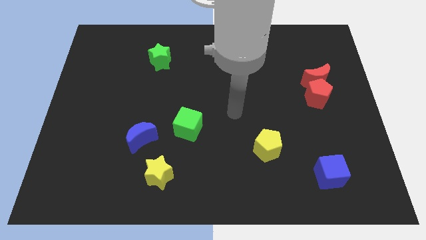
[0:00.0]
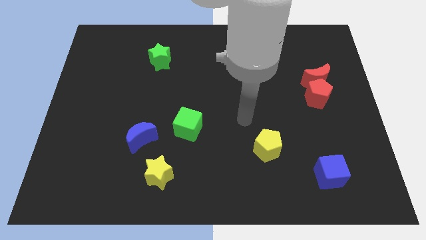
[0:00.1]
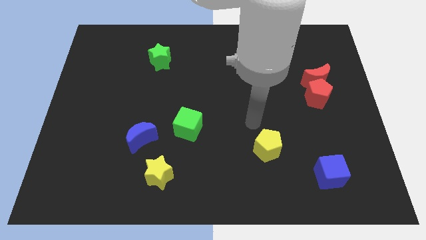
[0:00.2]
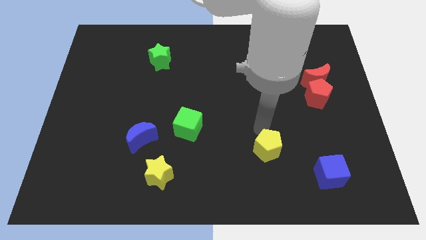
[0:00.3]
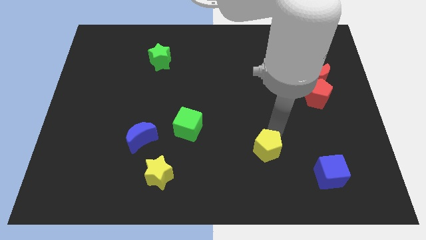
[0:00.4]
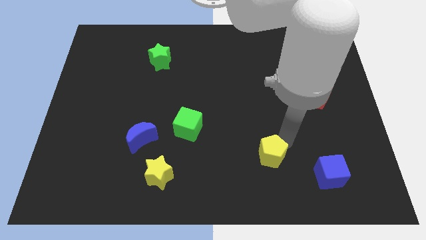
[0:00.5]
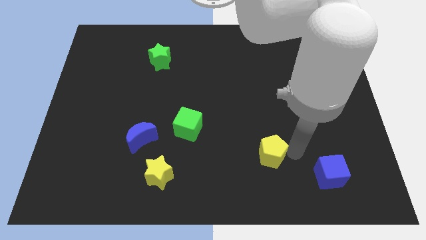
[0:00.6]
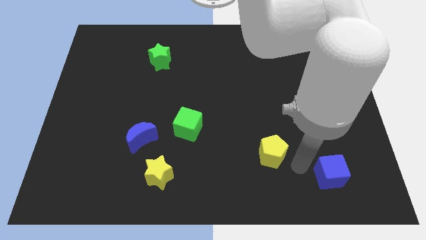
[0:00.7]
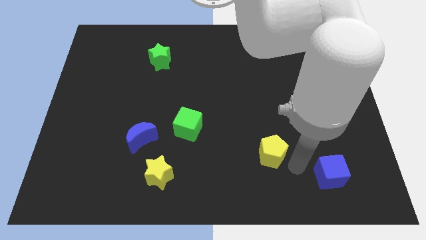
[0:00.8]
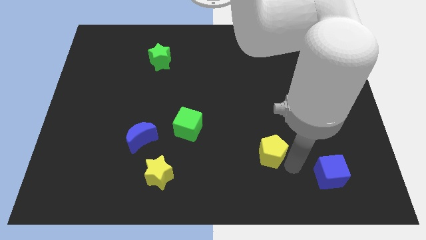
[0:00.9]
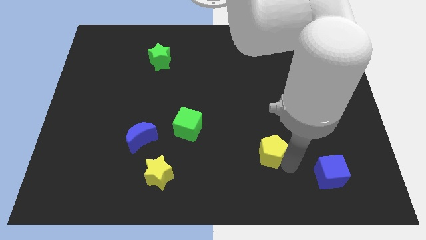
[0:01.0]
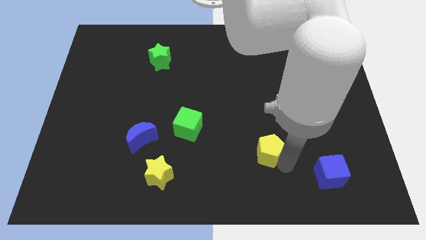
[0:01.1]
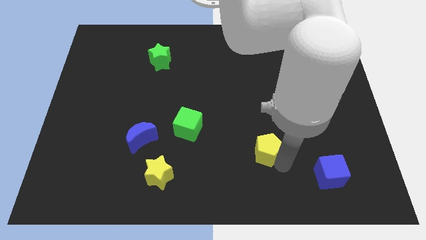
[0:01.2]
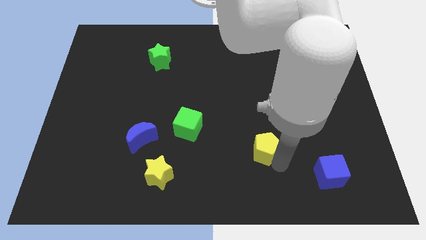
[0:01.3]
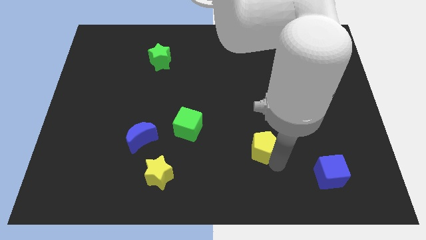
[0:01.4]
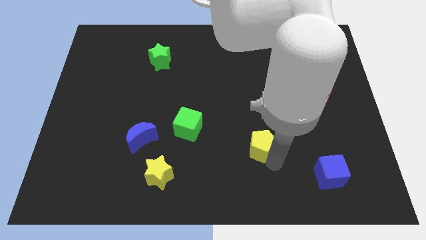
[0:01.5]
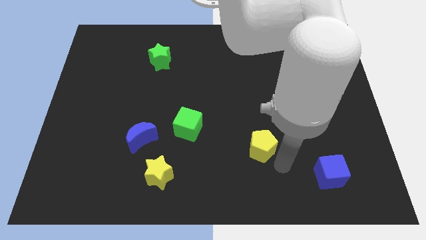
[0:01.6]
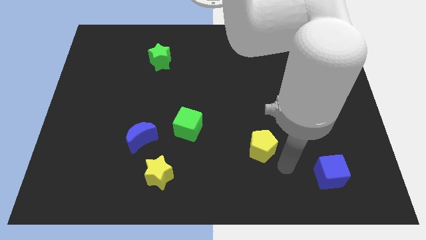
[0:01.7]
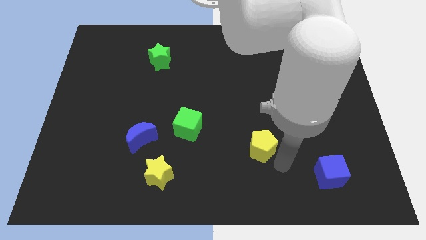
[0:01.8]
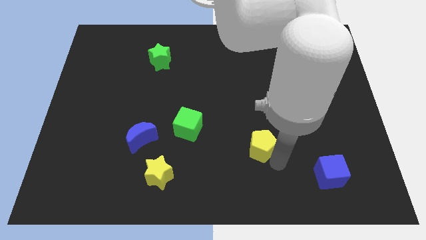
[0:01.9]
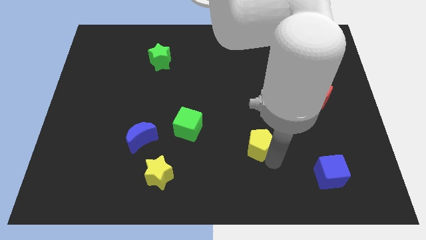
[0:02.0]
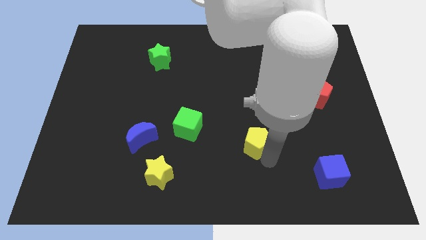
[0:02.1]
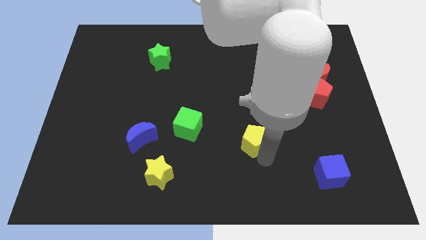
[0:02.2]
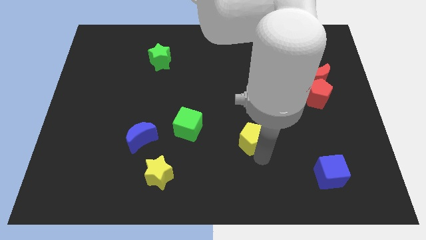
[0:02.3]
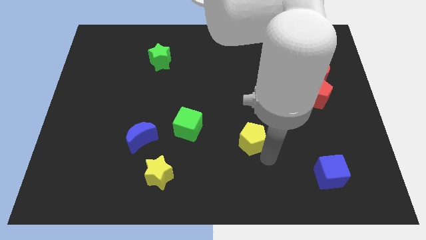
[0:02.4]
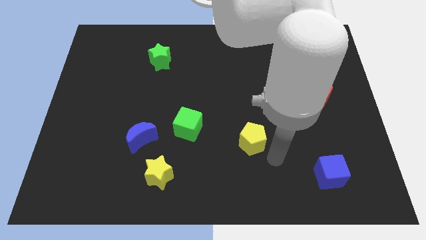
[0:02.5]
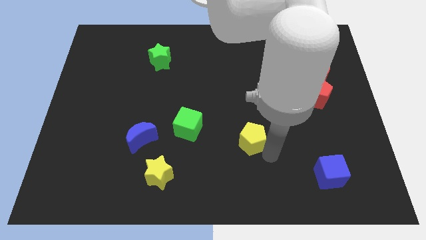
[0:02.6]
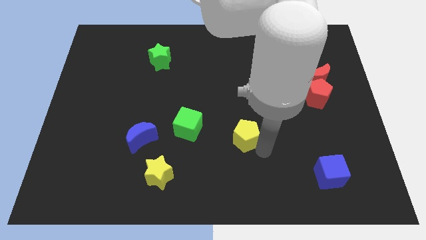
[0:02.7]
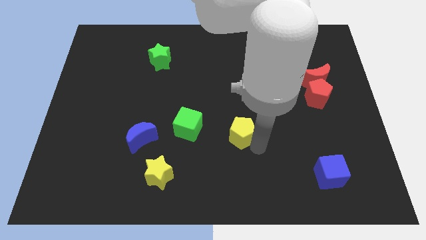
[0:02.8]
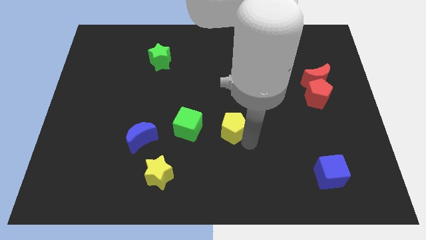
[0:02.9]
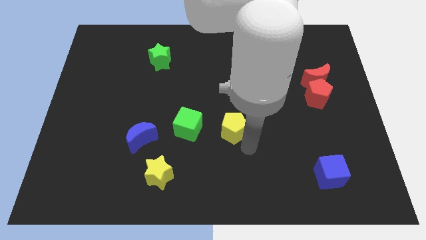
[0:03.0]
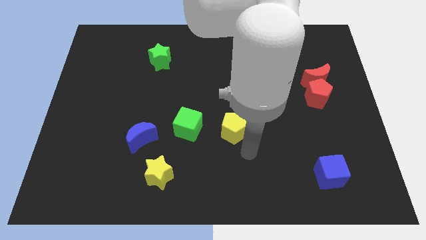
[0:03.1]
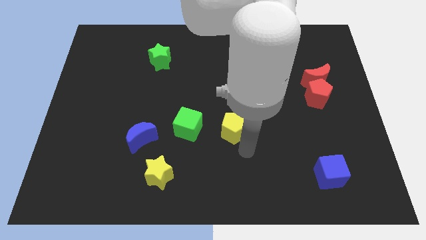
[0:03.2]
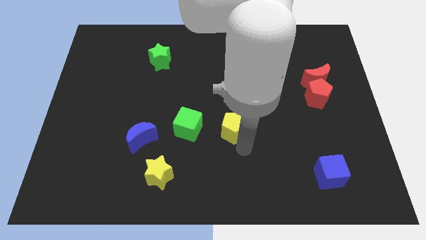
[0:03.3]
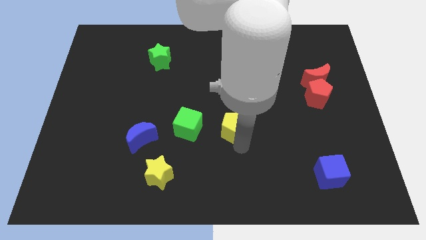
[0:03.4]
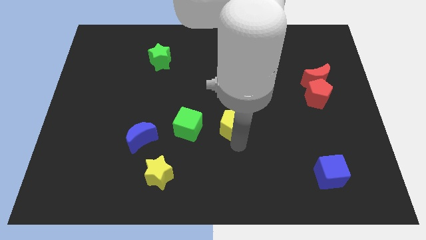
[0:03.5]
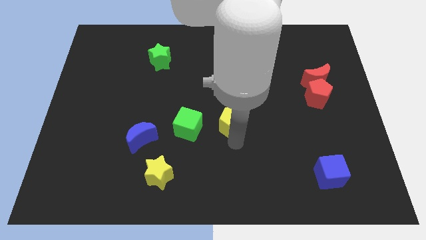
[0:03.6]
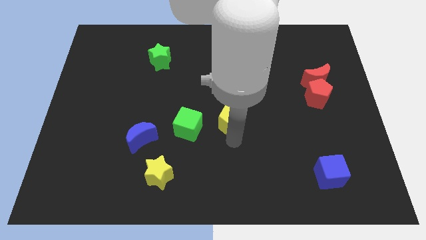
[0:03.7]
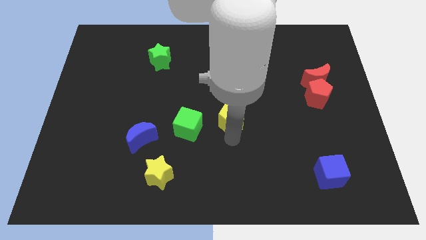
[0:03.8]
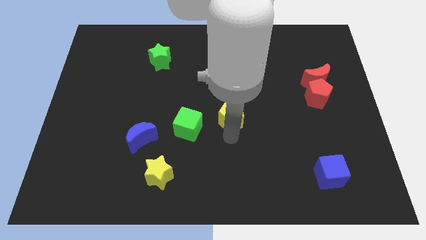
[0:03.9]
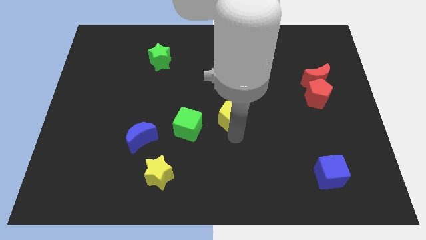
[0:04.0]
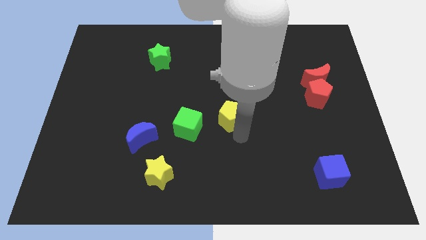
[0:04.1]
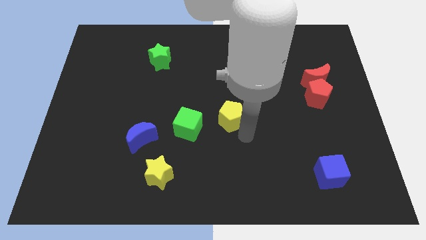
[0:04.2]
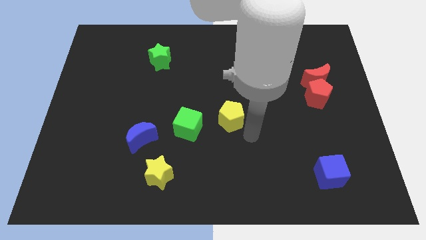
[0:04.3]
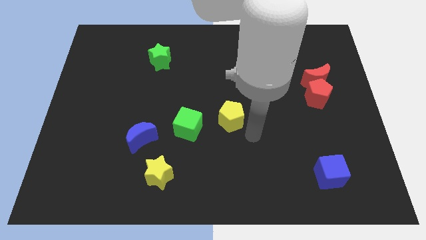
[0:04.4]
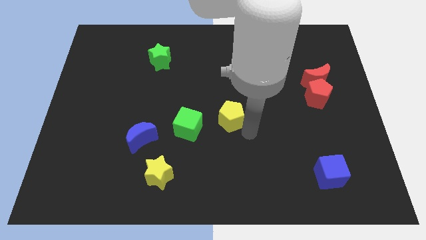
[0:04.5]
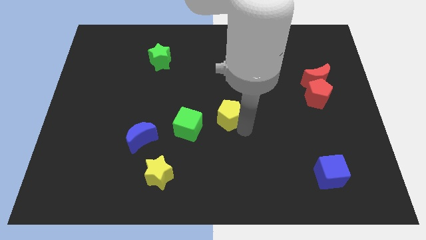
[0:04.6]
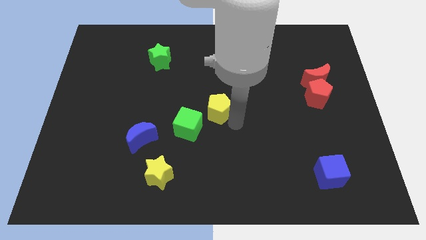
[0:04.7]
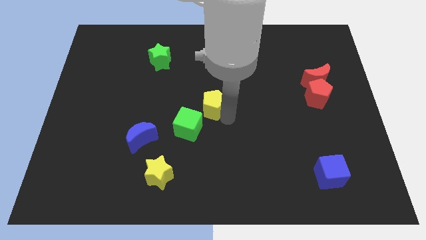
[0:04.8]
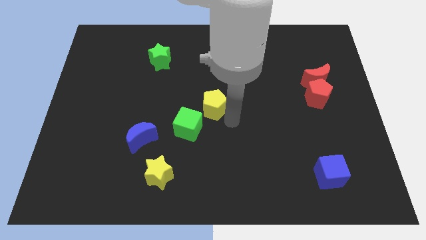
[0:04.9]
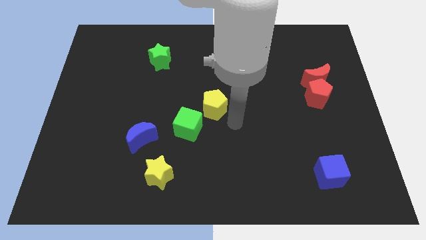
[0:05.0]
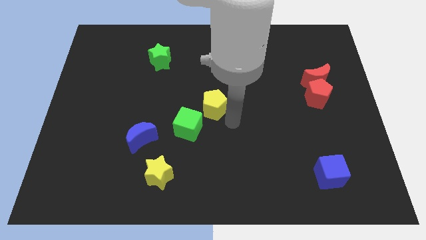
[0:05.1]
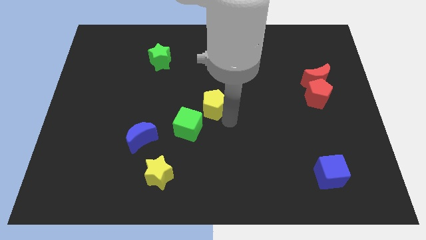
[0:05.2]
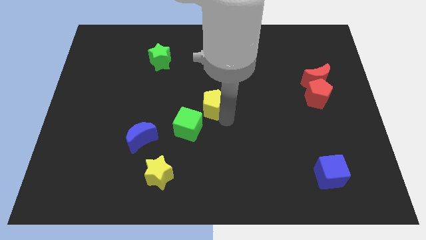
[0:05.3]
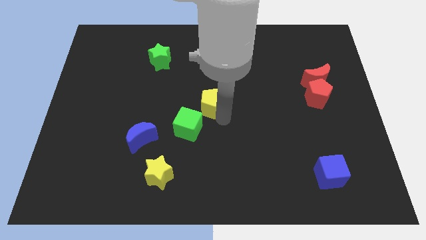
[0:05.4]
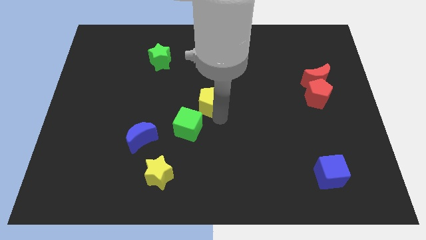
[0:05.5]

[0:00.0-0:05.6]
move the yellow pentagon above the green cube

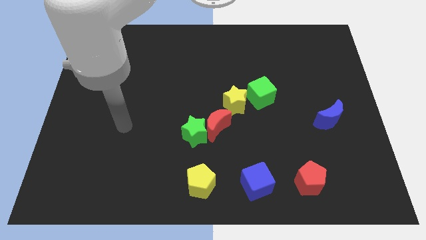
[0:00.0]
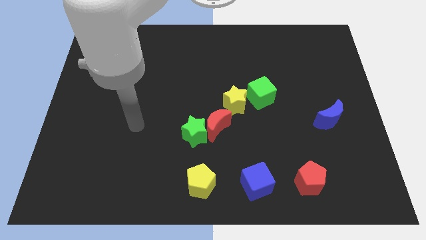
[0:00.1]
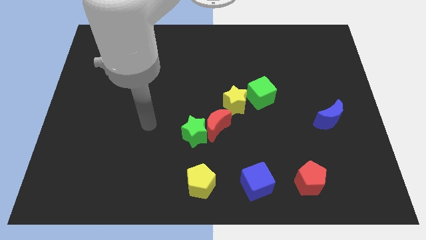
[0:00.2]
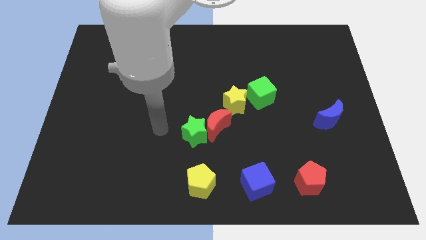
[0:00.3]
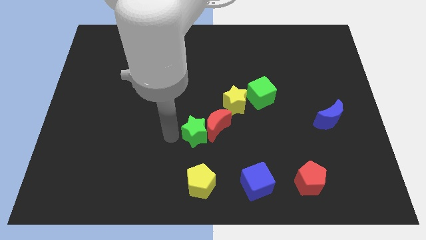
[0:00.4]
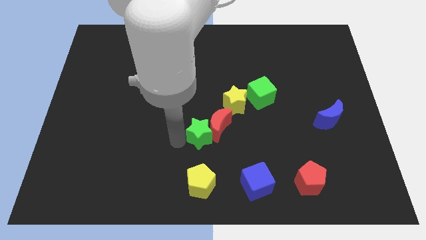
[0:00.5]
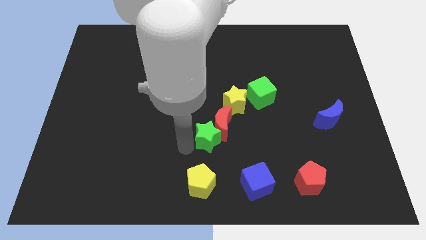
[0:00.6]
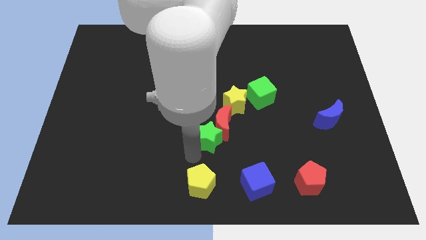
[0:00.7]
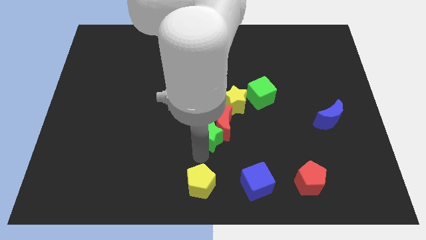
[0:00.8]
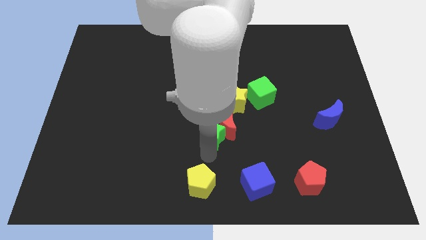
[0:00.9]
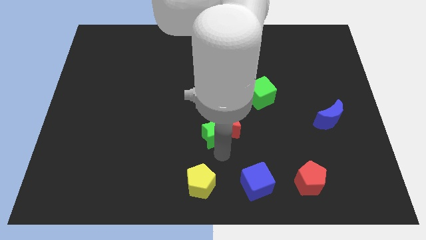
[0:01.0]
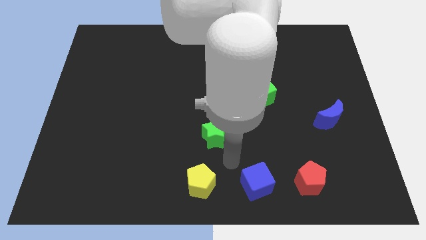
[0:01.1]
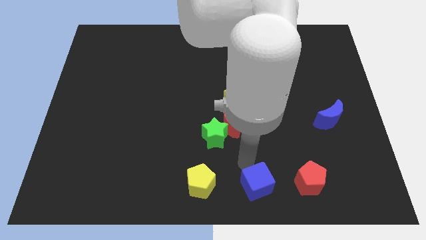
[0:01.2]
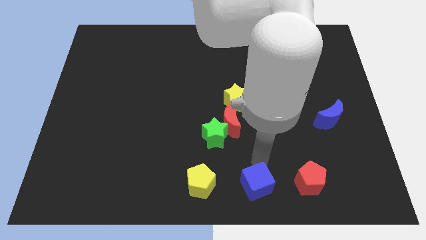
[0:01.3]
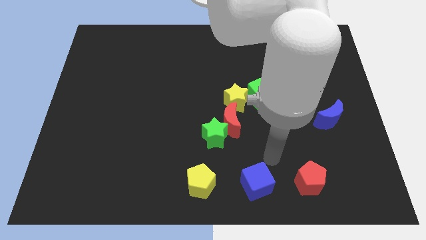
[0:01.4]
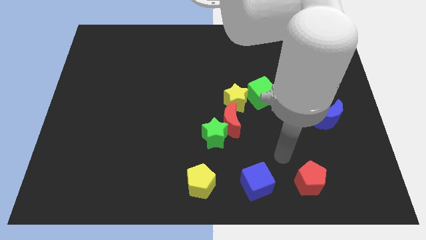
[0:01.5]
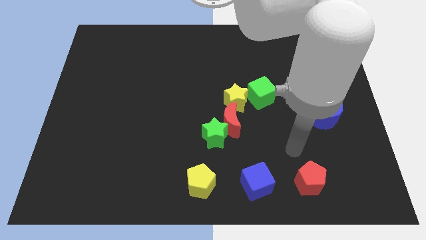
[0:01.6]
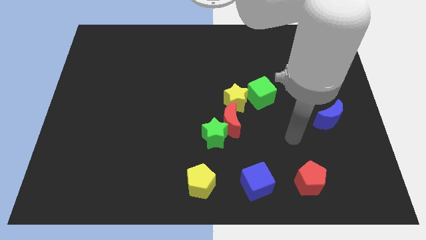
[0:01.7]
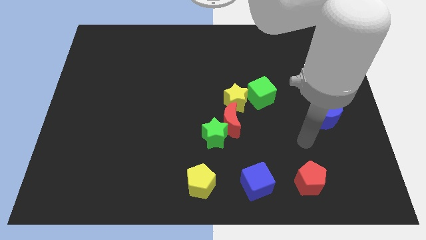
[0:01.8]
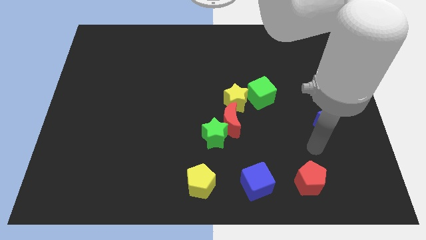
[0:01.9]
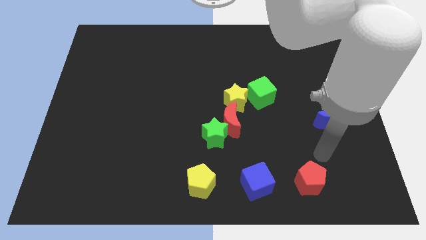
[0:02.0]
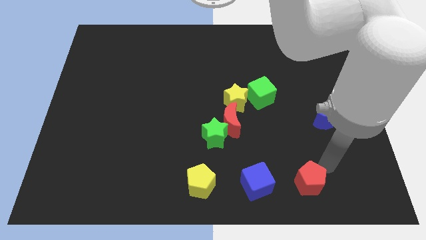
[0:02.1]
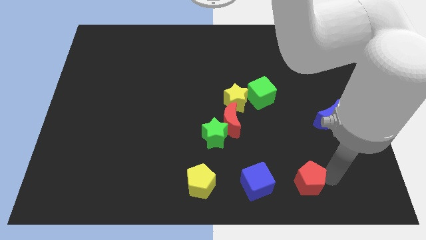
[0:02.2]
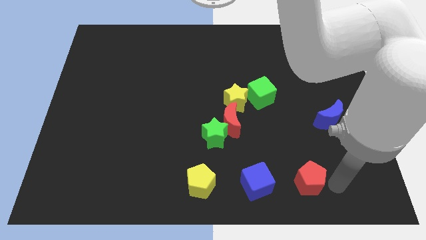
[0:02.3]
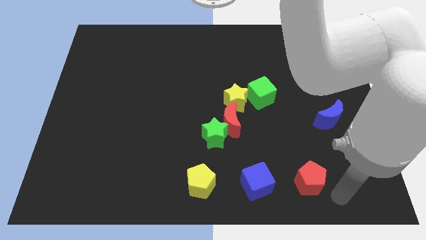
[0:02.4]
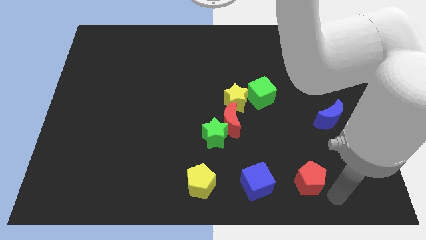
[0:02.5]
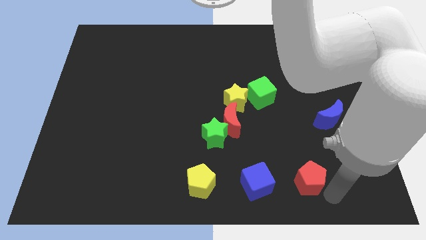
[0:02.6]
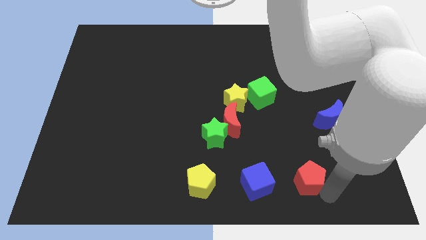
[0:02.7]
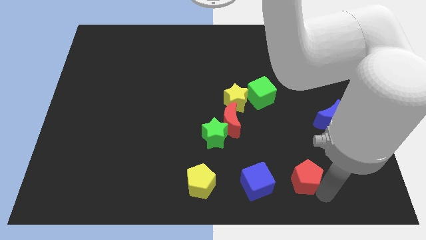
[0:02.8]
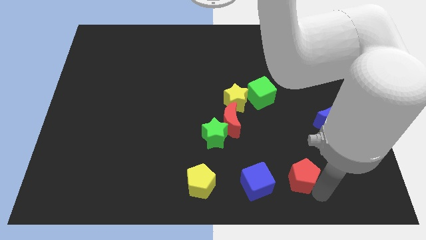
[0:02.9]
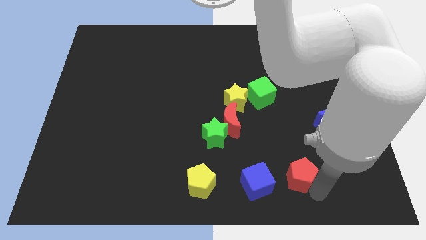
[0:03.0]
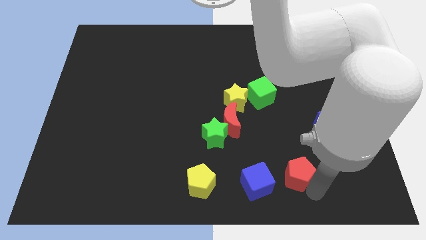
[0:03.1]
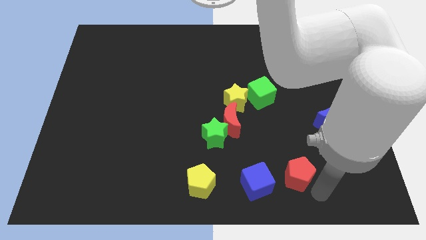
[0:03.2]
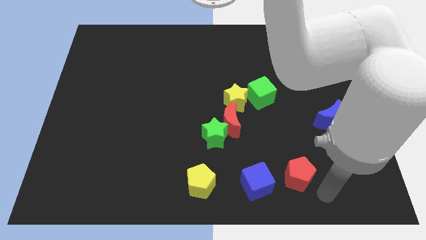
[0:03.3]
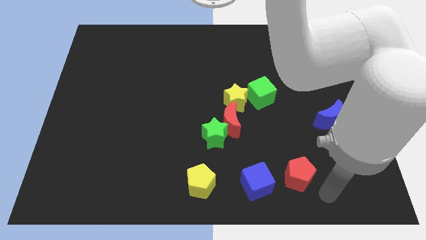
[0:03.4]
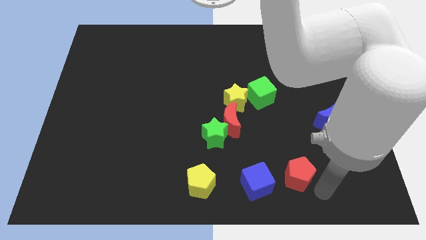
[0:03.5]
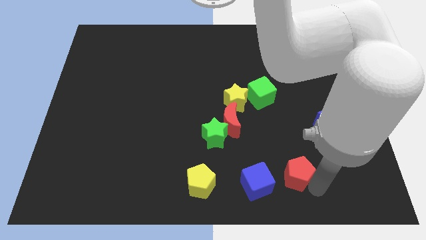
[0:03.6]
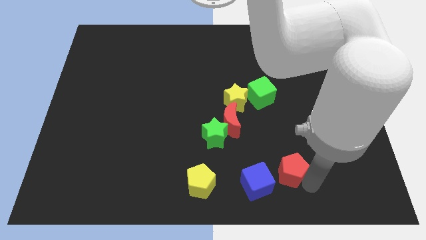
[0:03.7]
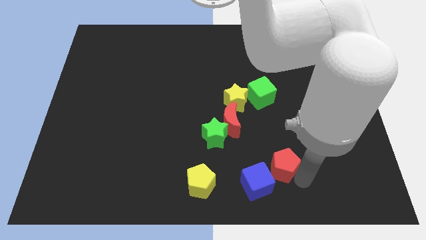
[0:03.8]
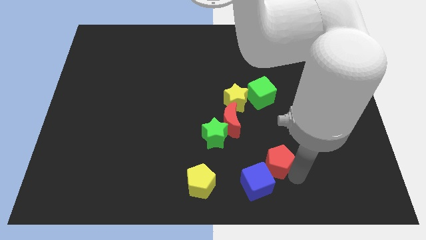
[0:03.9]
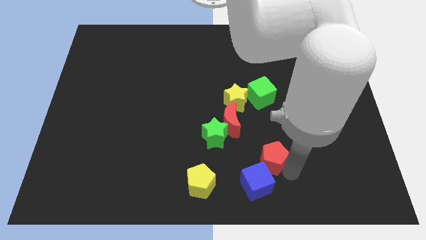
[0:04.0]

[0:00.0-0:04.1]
move the red pentagon to the bottom right of the red moon
